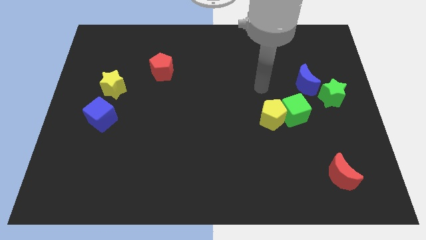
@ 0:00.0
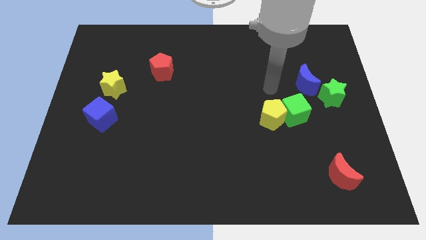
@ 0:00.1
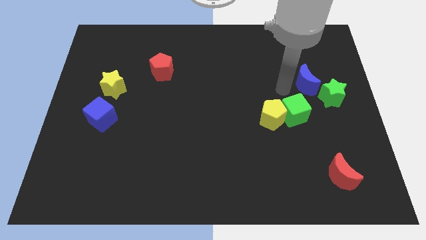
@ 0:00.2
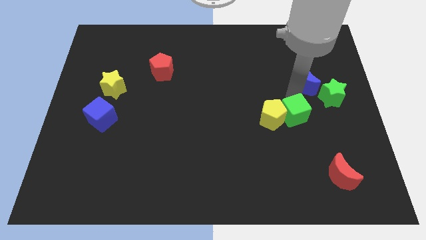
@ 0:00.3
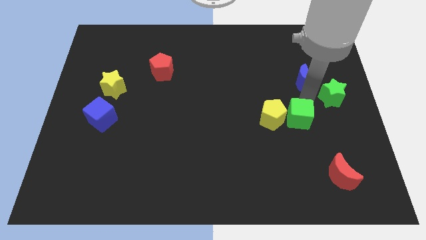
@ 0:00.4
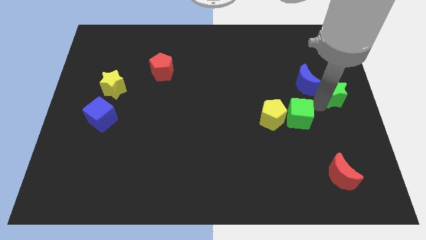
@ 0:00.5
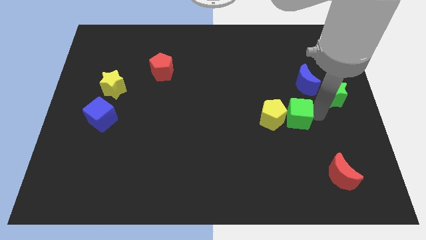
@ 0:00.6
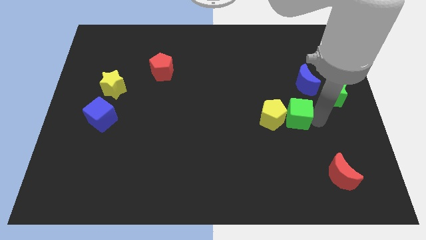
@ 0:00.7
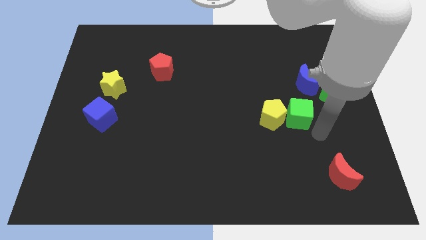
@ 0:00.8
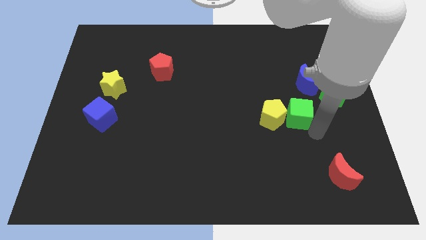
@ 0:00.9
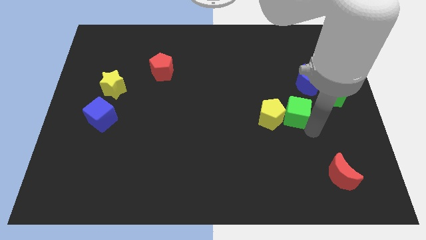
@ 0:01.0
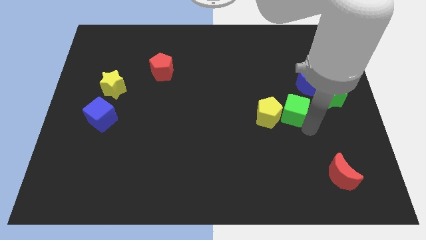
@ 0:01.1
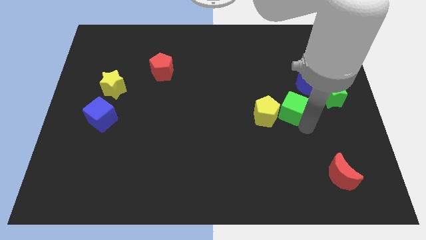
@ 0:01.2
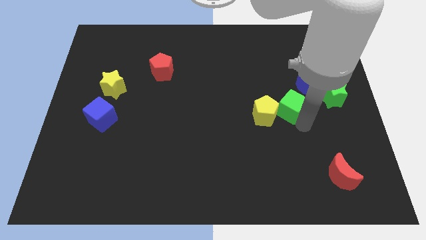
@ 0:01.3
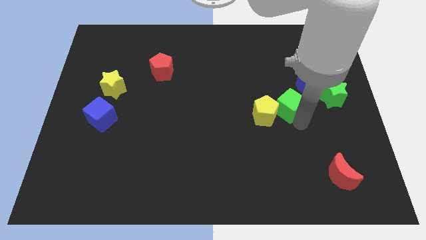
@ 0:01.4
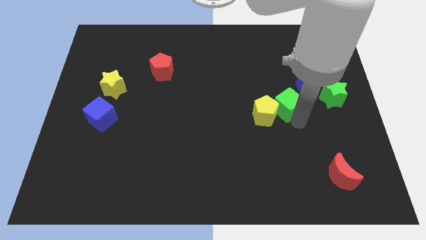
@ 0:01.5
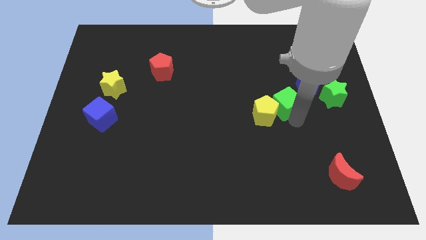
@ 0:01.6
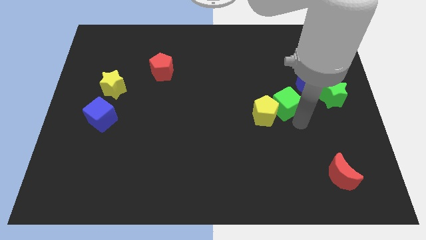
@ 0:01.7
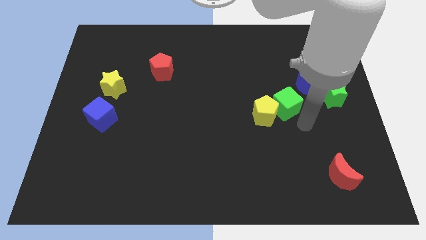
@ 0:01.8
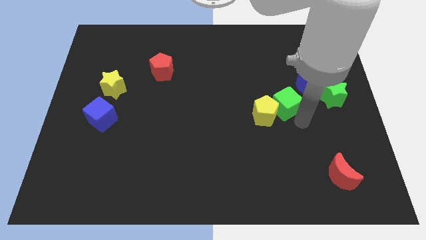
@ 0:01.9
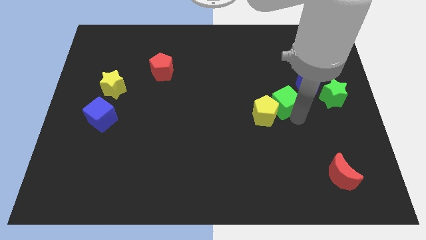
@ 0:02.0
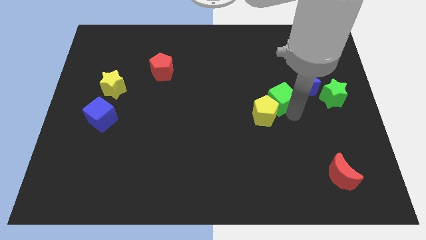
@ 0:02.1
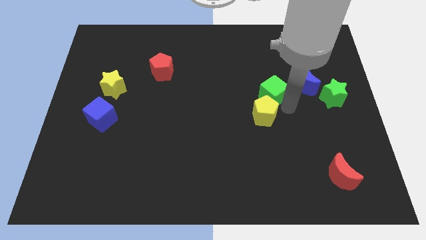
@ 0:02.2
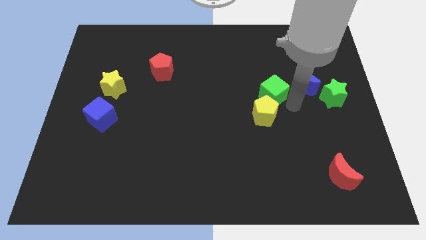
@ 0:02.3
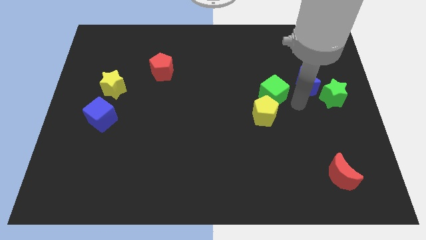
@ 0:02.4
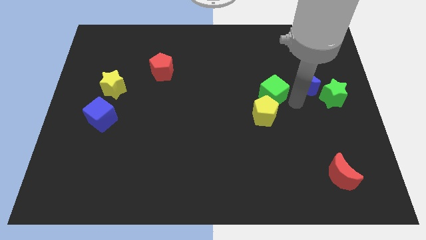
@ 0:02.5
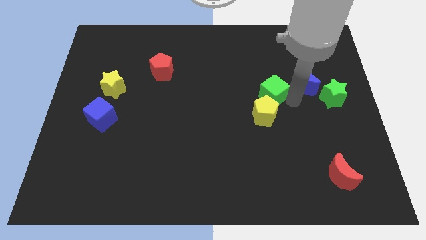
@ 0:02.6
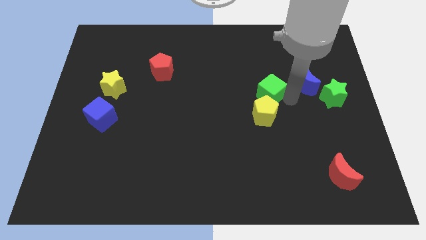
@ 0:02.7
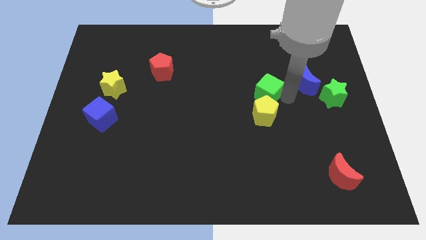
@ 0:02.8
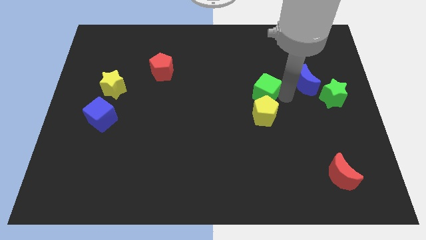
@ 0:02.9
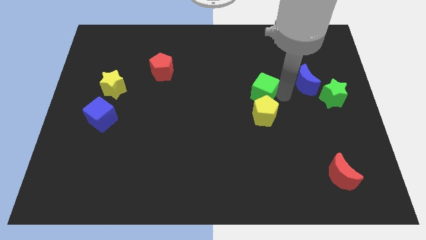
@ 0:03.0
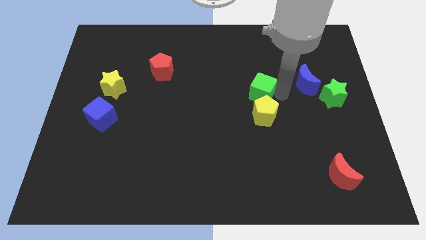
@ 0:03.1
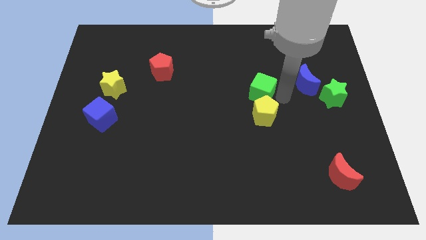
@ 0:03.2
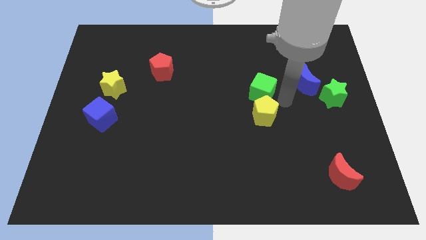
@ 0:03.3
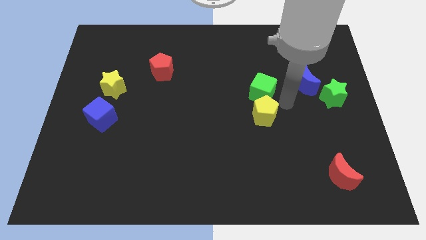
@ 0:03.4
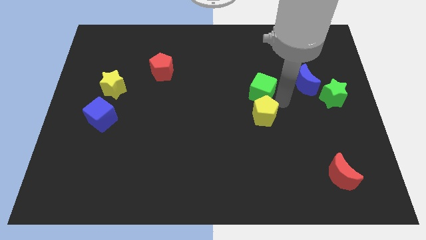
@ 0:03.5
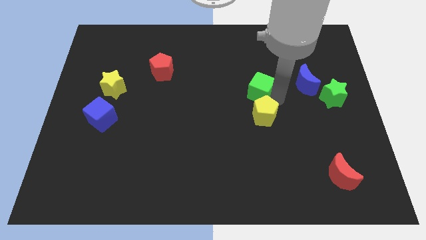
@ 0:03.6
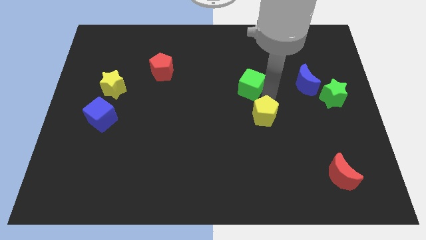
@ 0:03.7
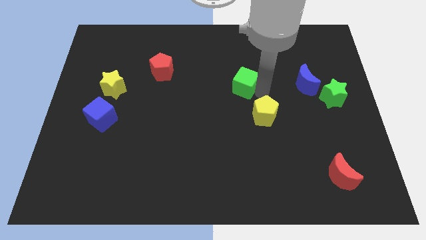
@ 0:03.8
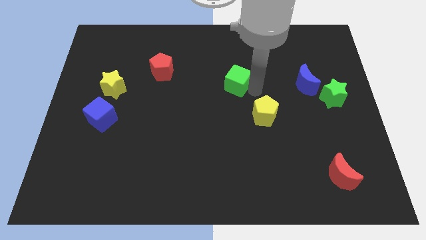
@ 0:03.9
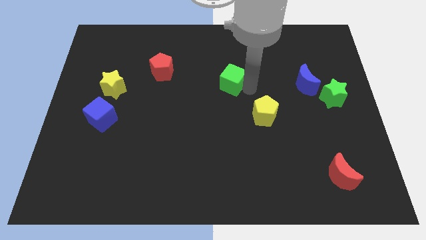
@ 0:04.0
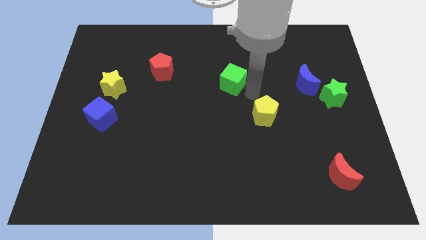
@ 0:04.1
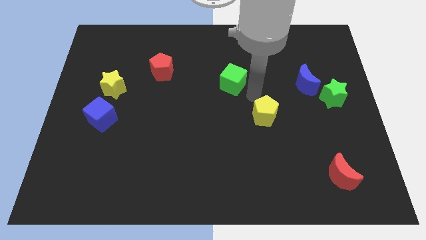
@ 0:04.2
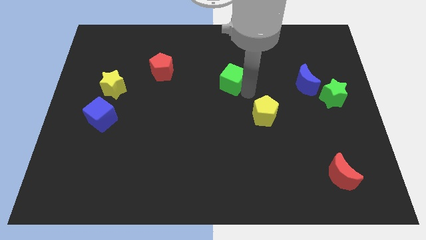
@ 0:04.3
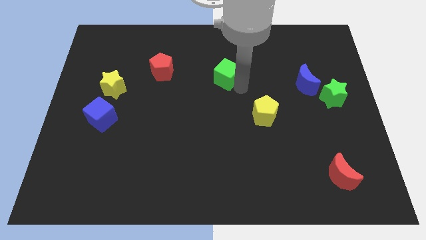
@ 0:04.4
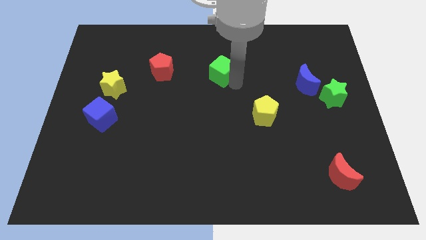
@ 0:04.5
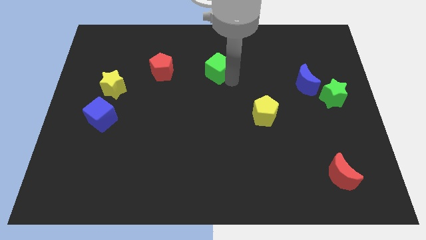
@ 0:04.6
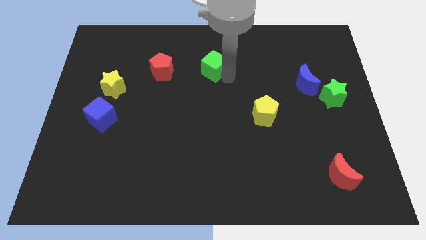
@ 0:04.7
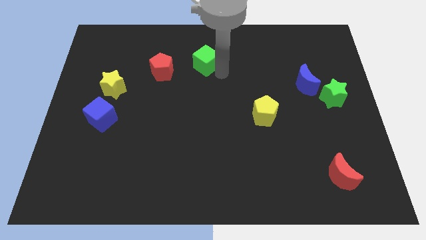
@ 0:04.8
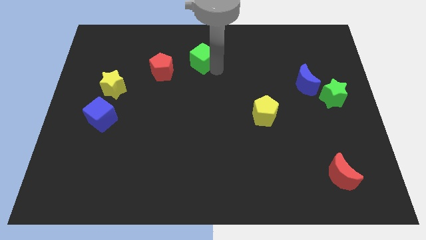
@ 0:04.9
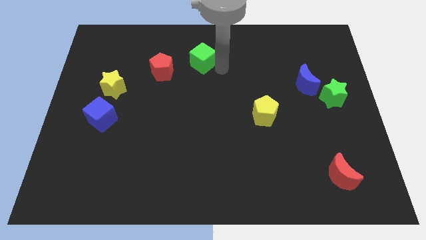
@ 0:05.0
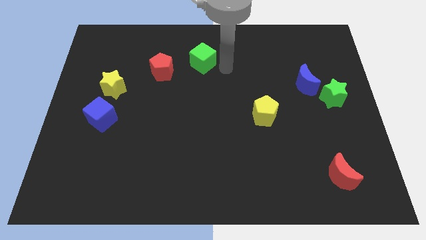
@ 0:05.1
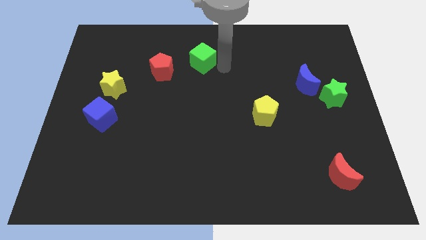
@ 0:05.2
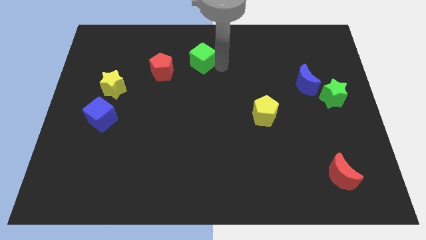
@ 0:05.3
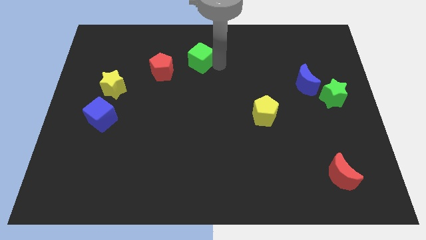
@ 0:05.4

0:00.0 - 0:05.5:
push the green cube diagonally up and to the right of the red pentagon

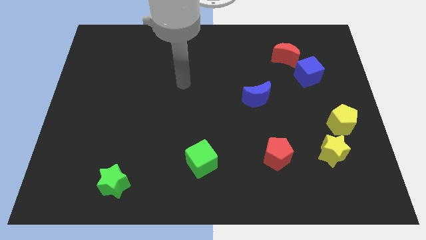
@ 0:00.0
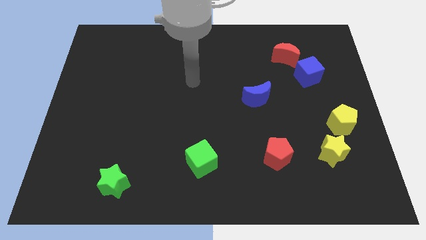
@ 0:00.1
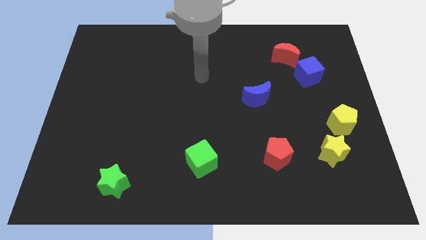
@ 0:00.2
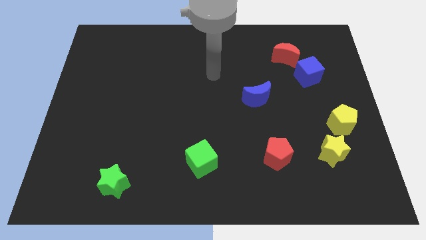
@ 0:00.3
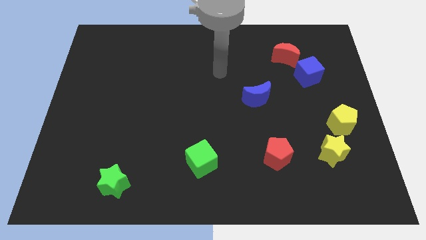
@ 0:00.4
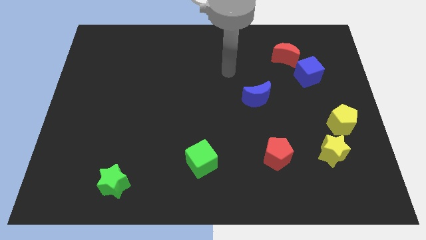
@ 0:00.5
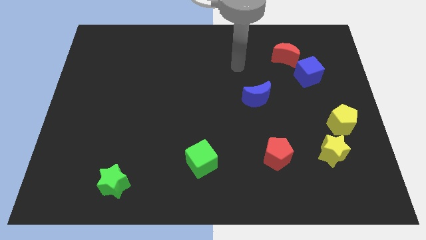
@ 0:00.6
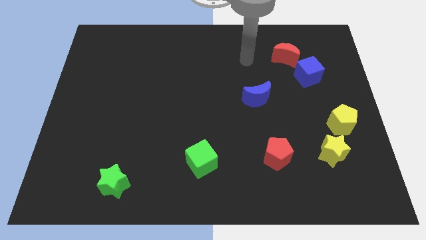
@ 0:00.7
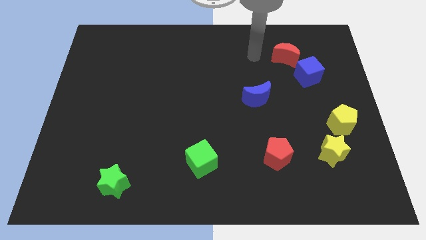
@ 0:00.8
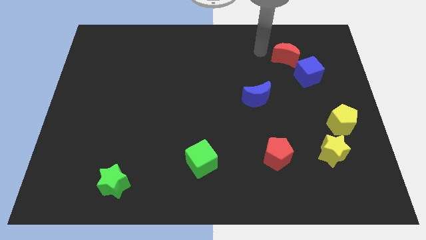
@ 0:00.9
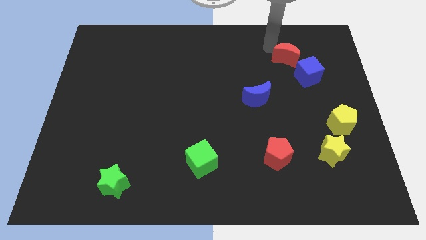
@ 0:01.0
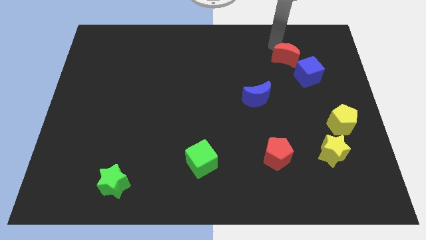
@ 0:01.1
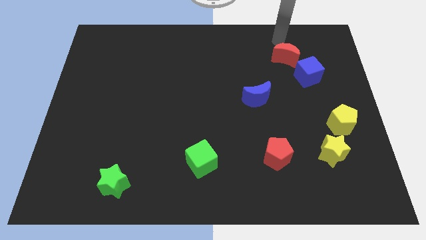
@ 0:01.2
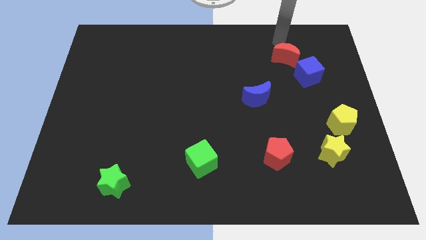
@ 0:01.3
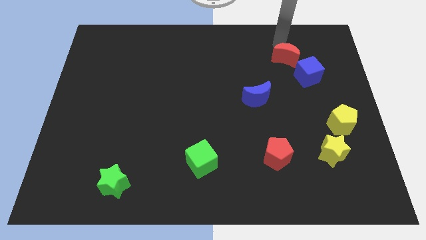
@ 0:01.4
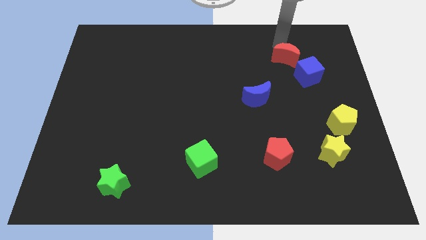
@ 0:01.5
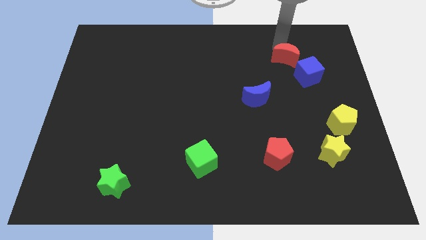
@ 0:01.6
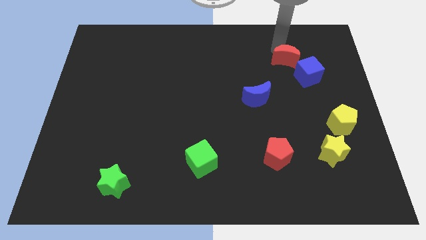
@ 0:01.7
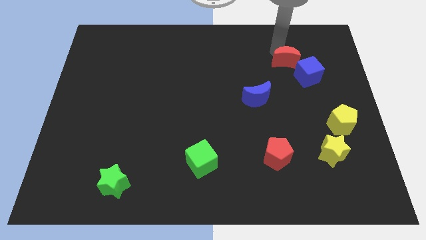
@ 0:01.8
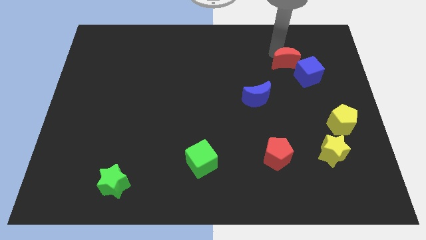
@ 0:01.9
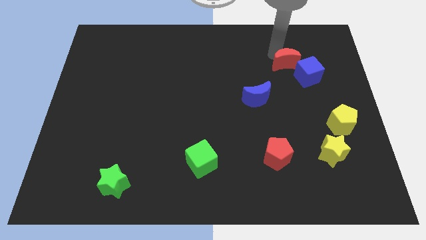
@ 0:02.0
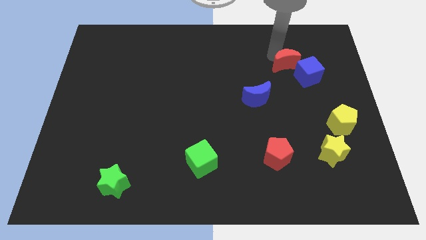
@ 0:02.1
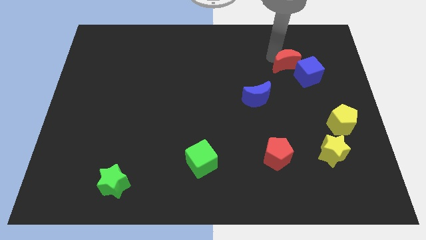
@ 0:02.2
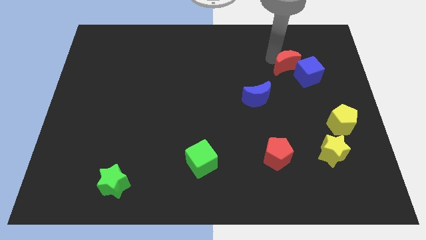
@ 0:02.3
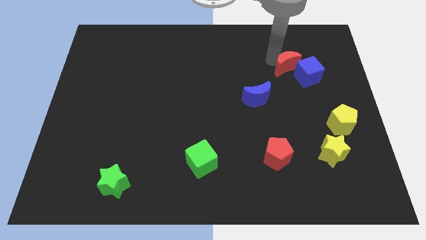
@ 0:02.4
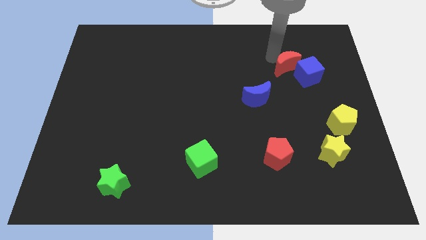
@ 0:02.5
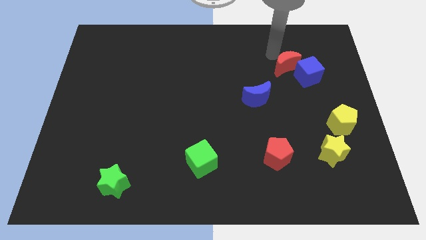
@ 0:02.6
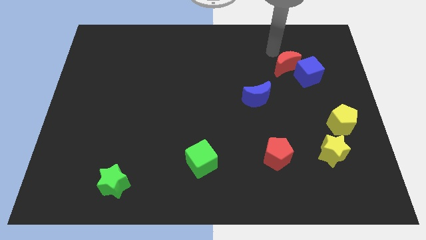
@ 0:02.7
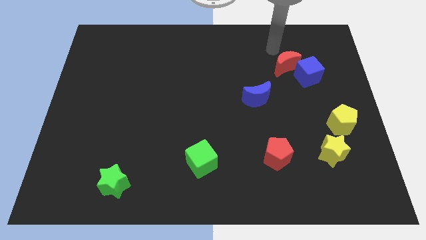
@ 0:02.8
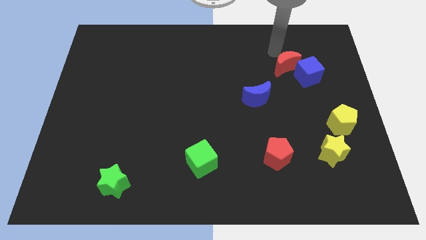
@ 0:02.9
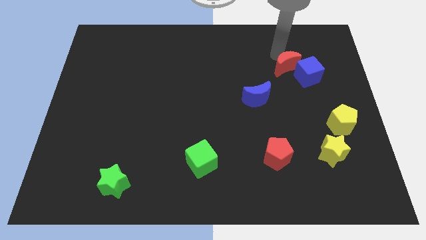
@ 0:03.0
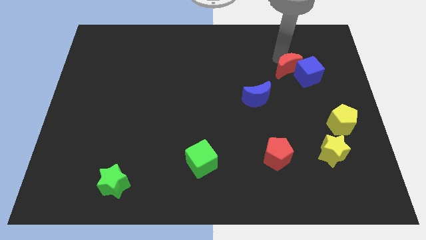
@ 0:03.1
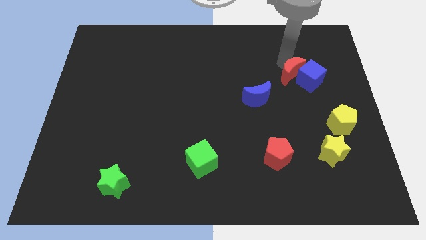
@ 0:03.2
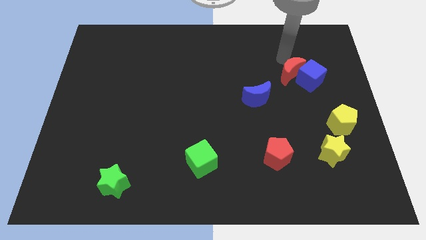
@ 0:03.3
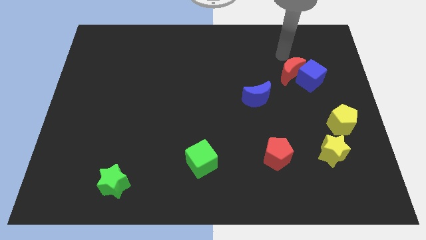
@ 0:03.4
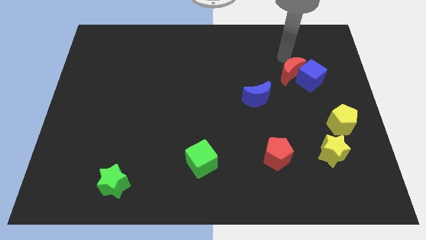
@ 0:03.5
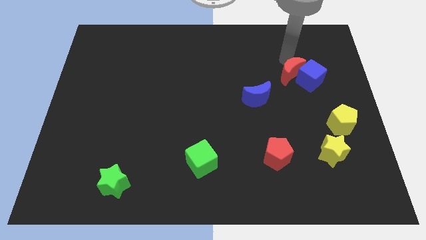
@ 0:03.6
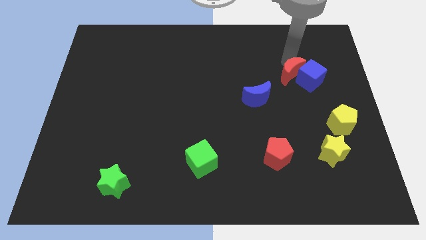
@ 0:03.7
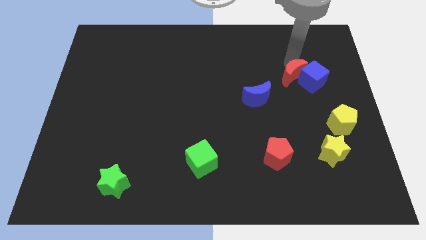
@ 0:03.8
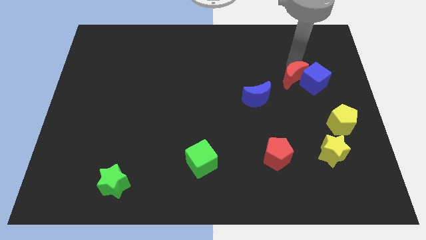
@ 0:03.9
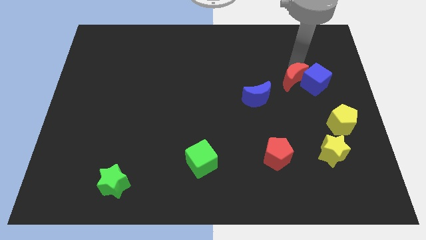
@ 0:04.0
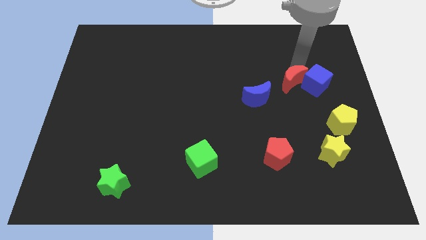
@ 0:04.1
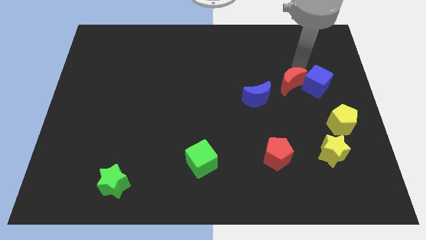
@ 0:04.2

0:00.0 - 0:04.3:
put the red moon just right of the blue moon
